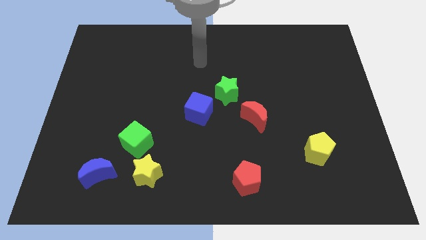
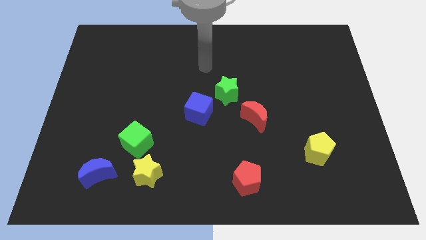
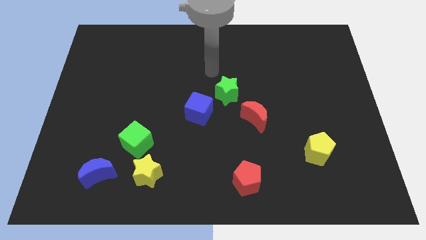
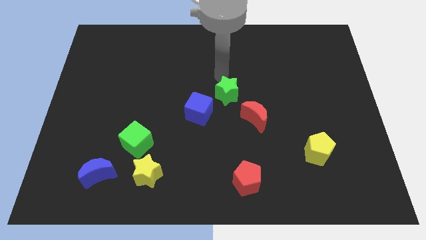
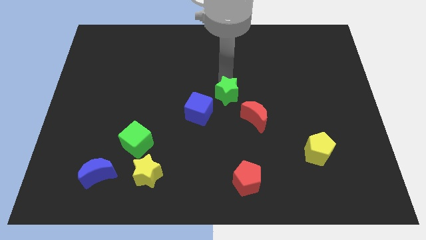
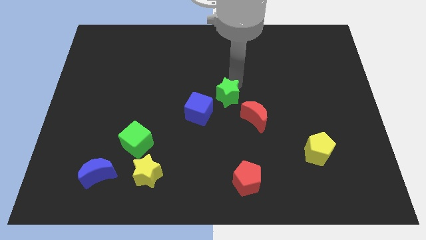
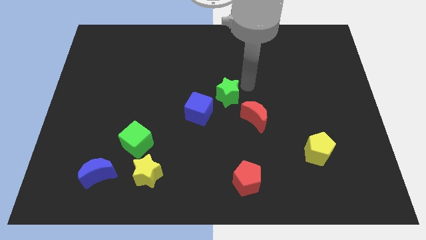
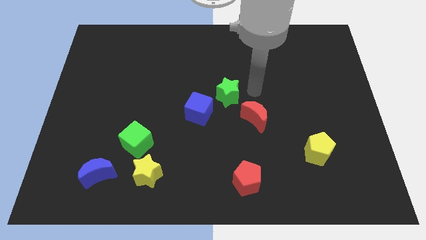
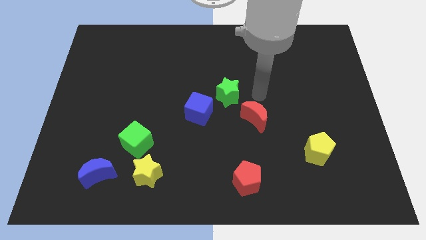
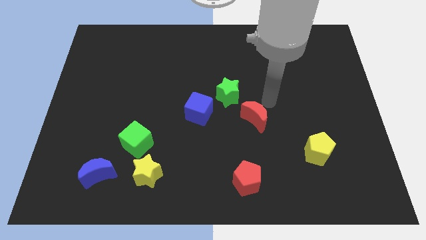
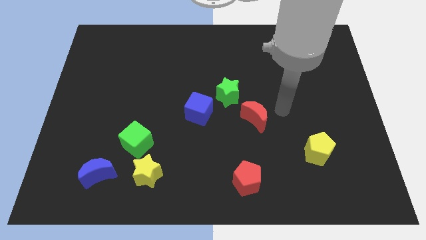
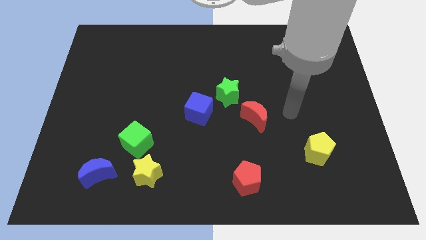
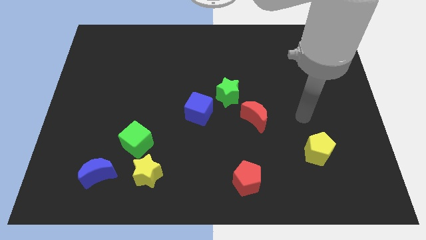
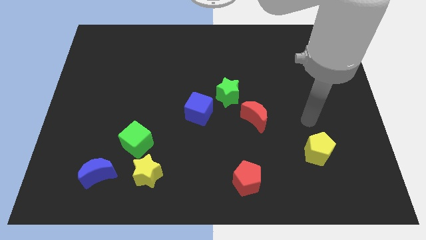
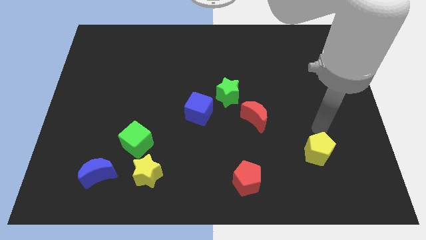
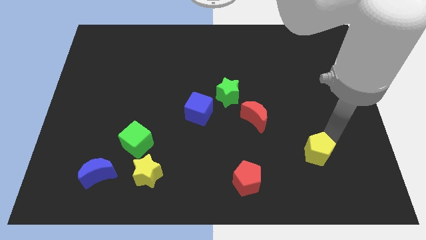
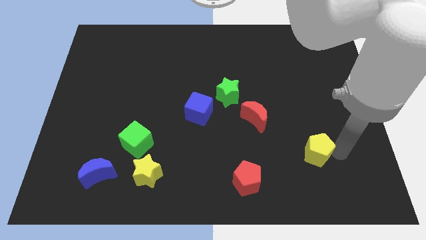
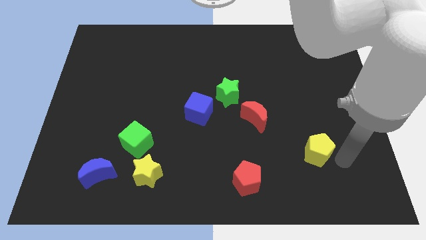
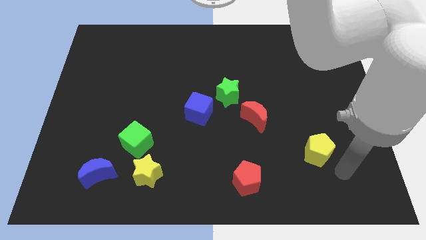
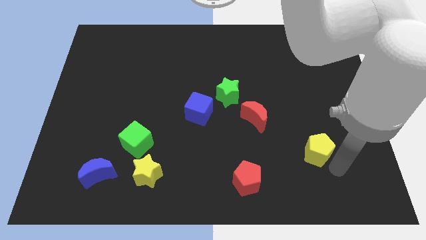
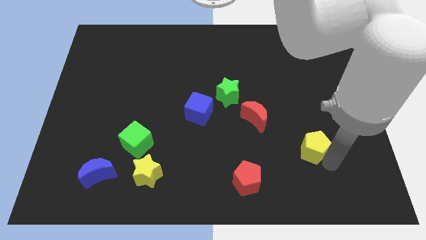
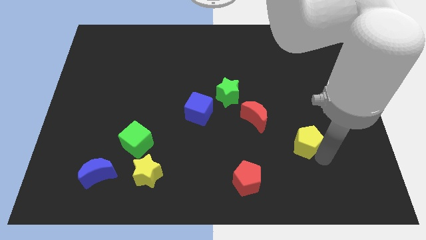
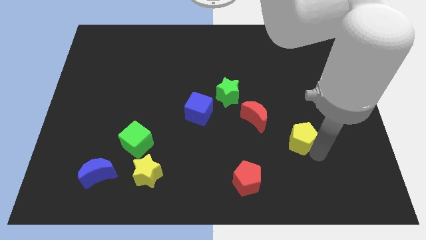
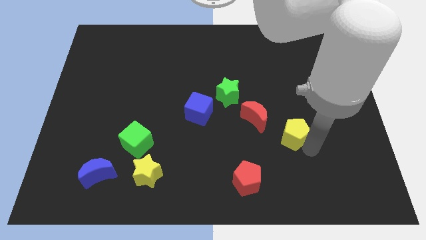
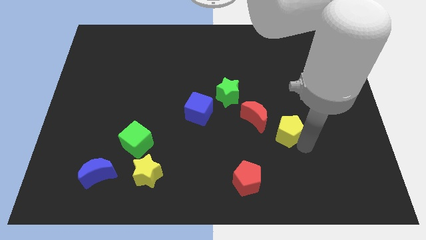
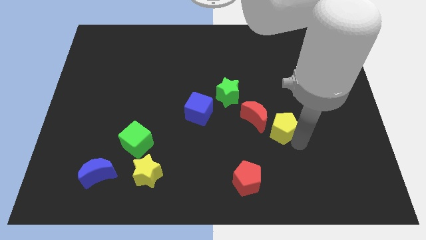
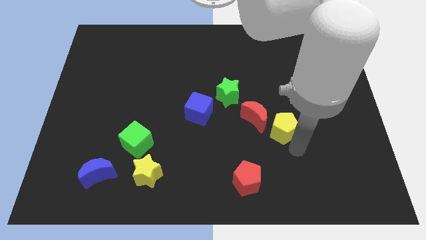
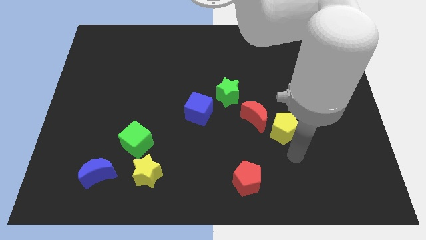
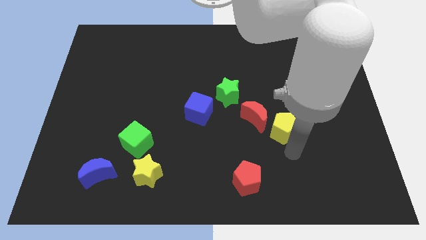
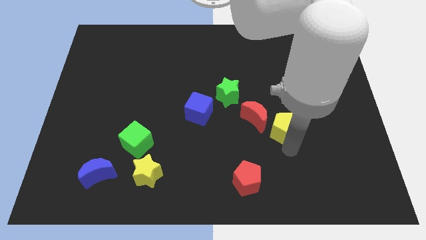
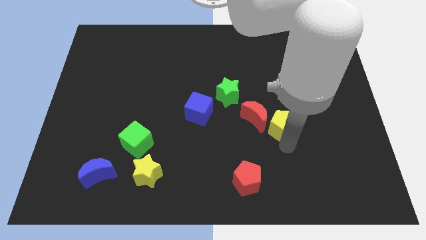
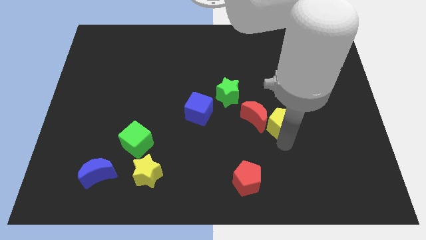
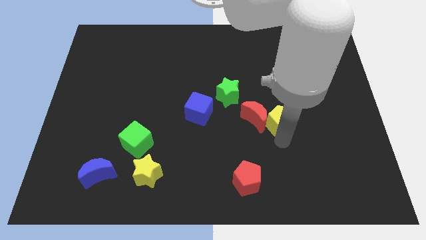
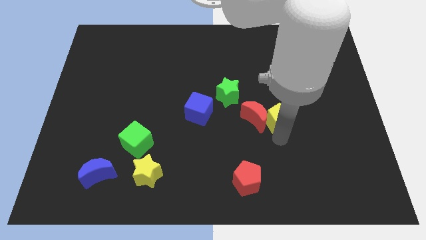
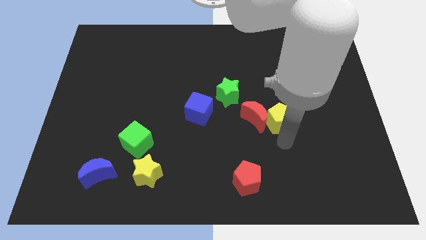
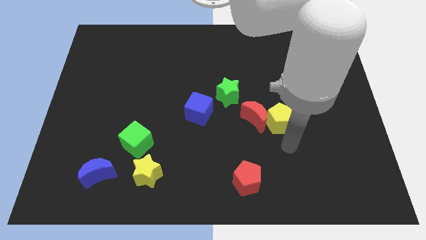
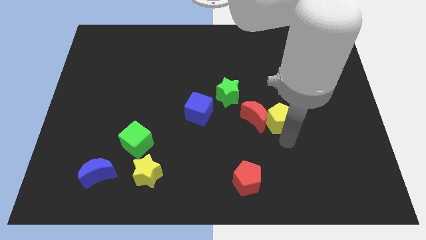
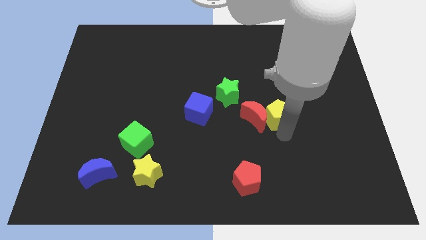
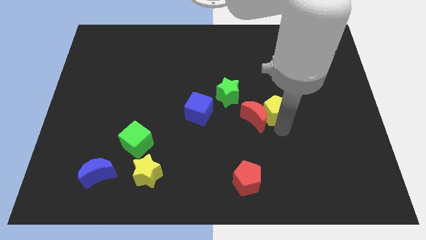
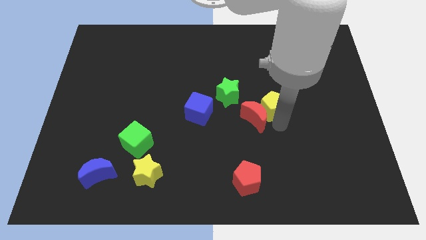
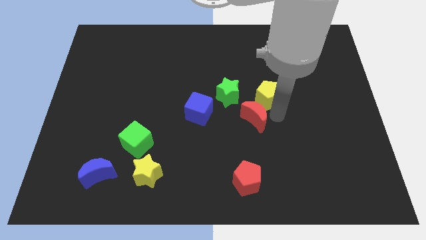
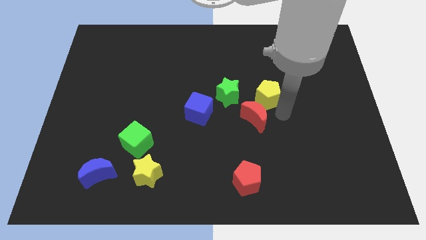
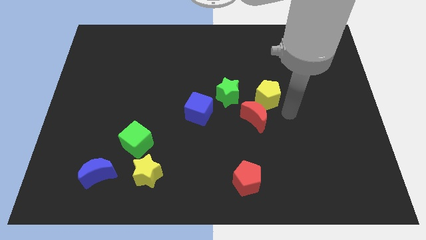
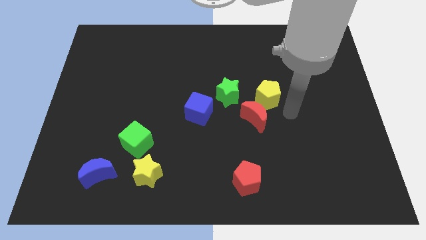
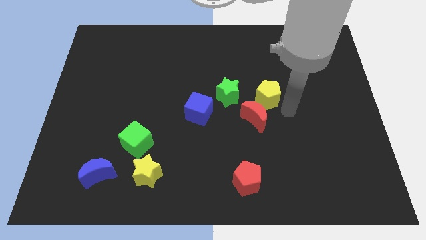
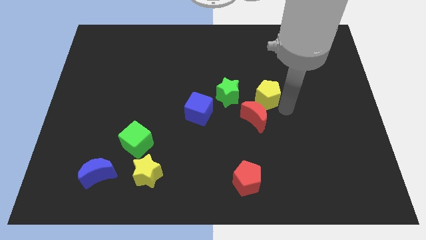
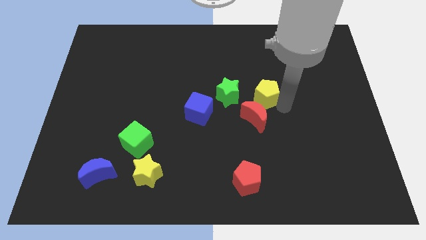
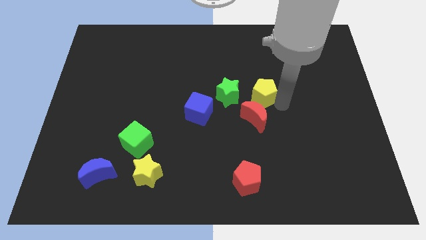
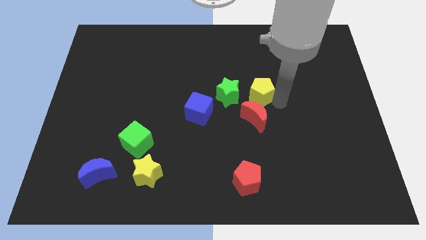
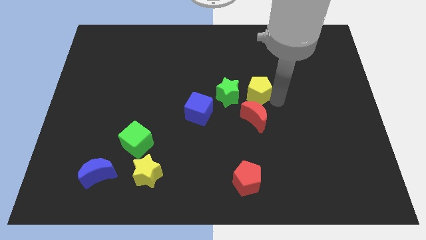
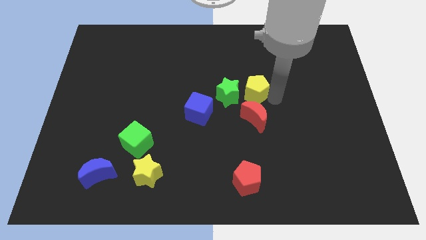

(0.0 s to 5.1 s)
slide the yellow pentagon up and left diagonally

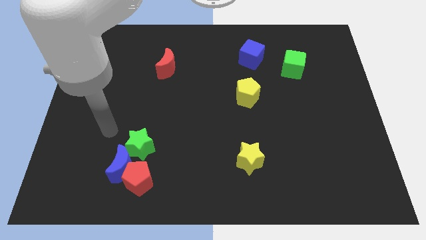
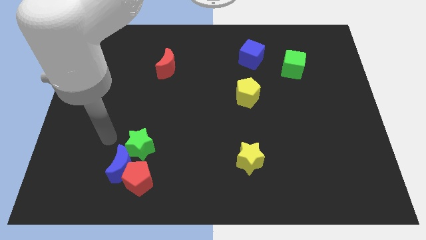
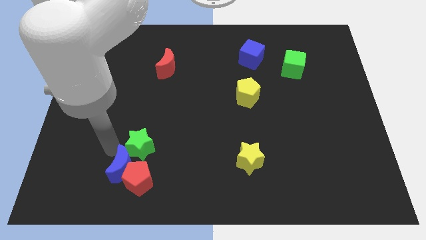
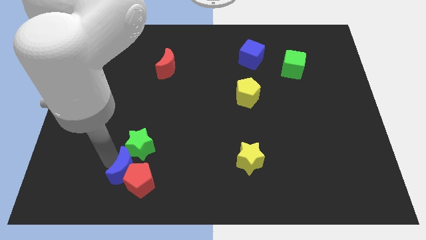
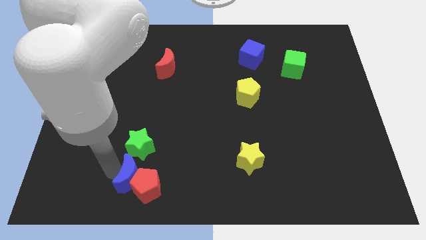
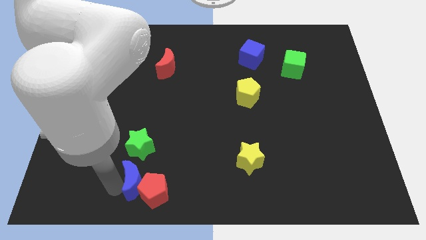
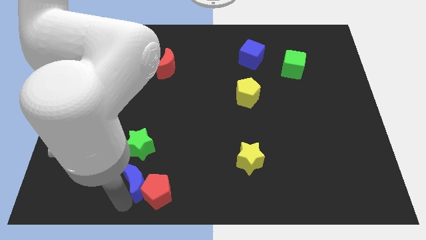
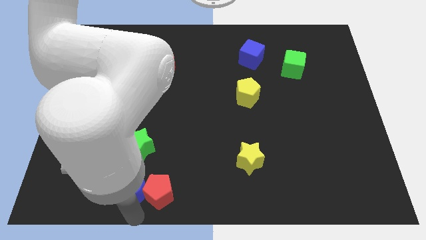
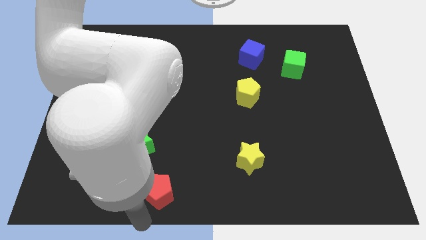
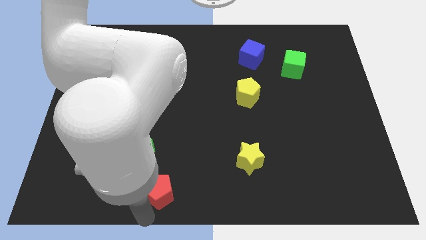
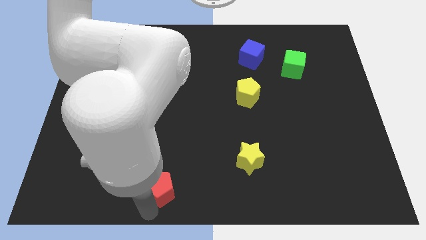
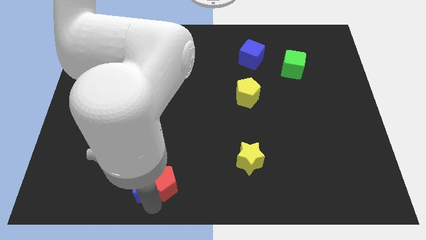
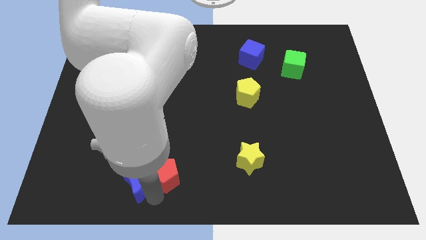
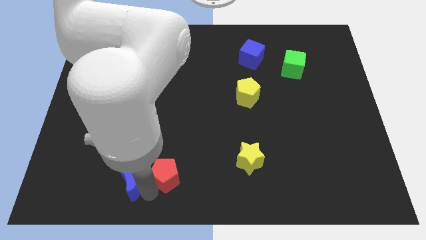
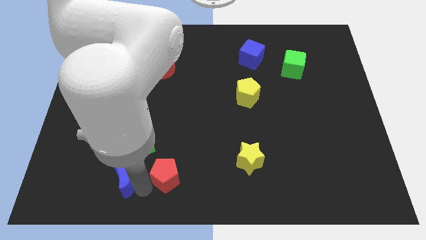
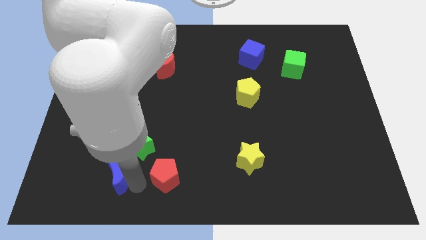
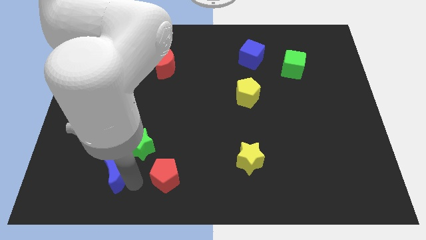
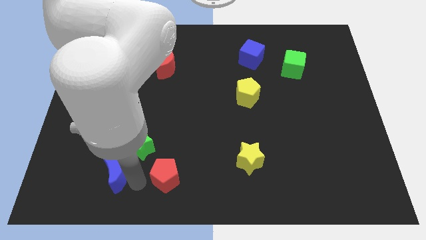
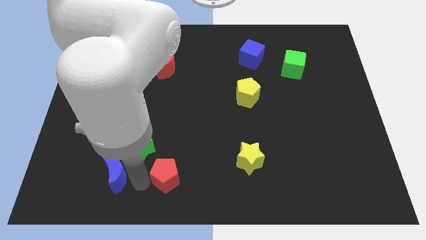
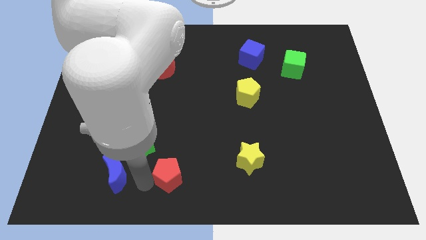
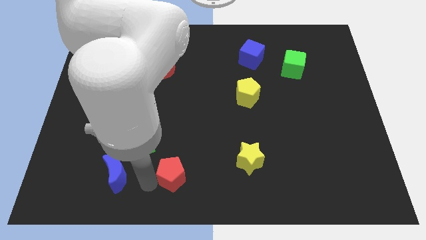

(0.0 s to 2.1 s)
slide the red pentagon a bit to the right

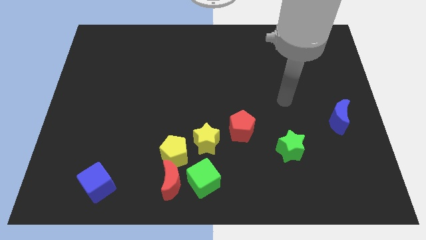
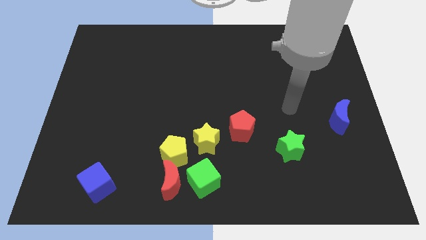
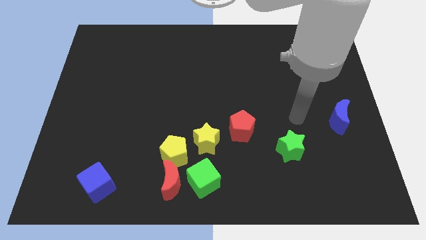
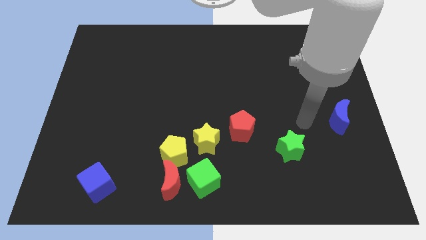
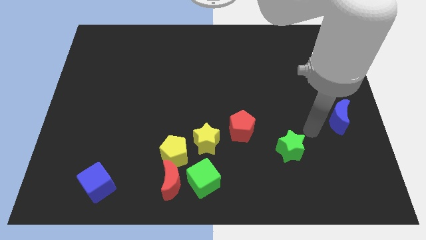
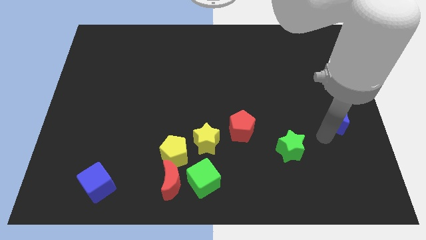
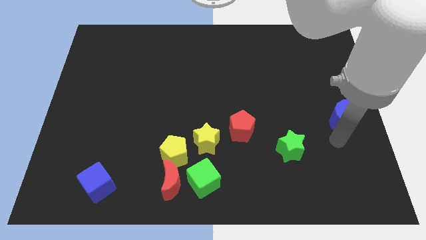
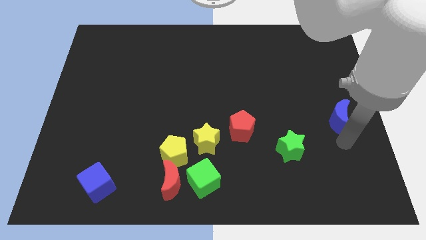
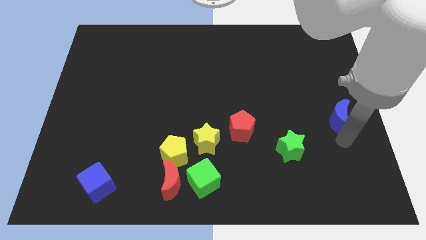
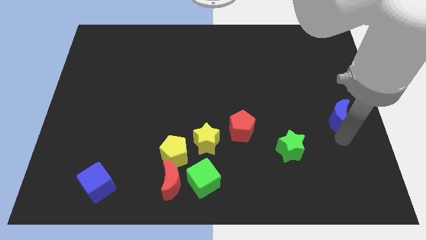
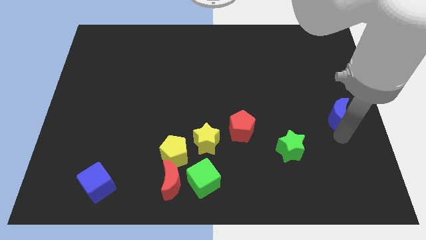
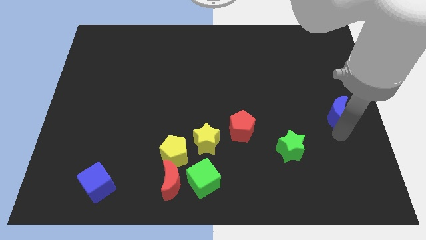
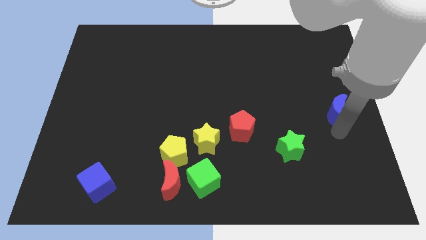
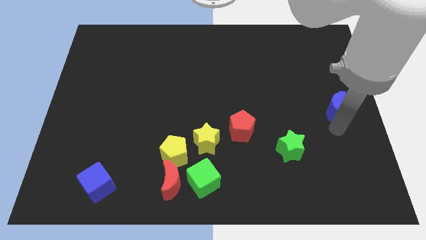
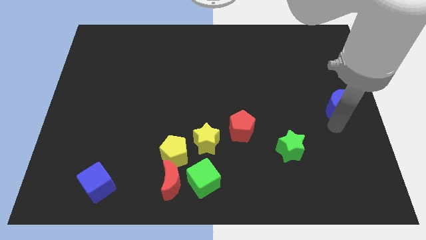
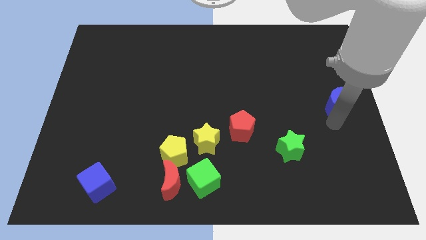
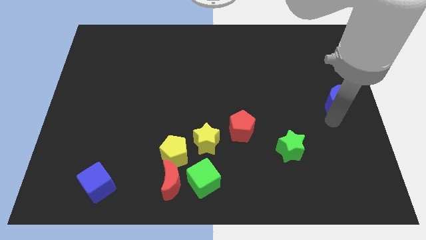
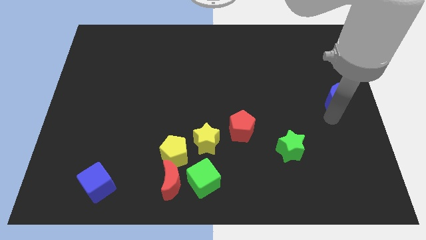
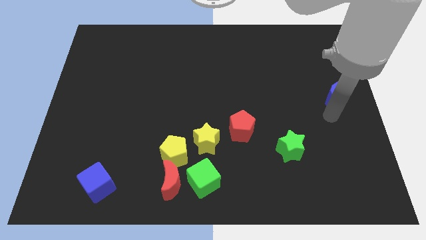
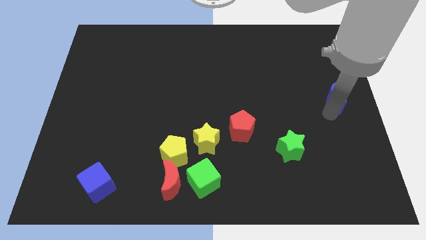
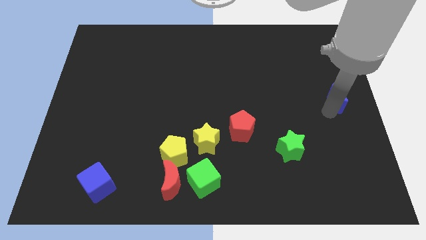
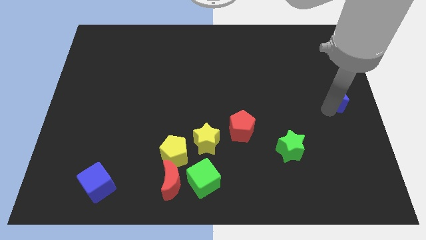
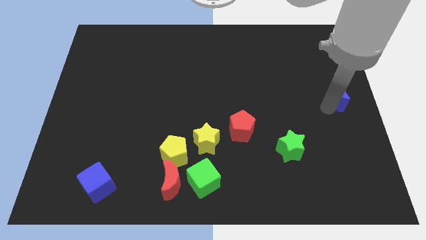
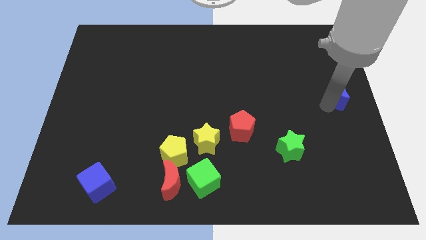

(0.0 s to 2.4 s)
move the blue moon a little bit upwards
